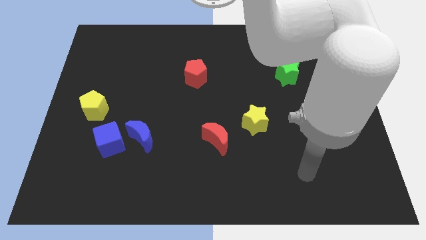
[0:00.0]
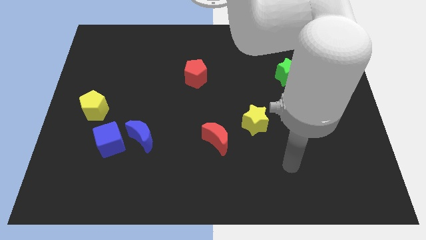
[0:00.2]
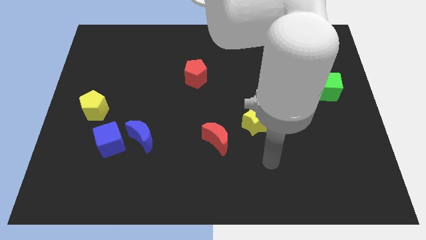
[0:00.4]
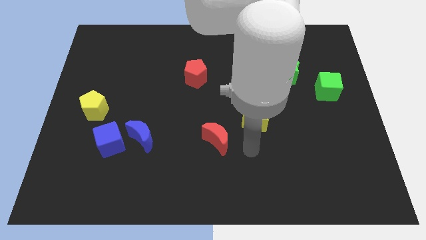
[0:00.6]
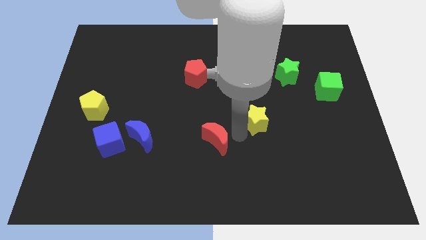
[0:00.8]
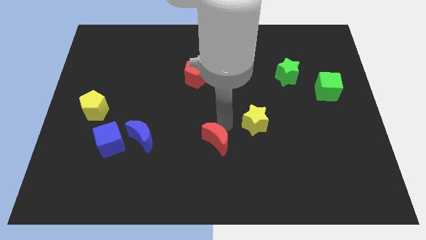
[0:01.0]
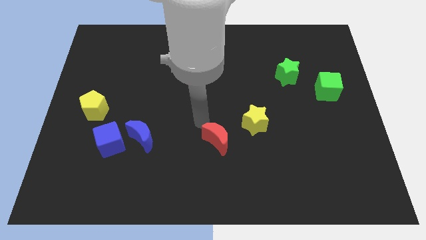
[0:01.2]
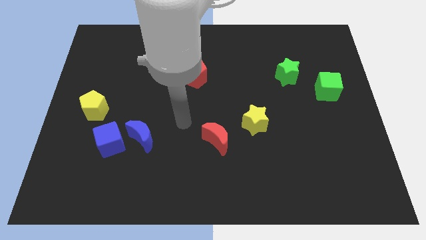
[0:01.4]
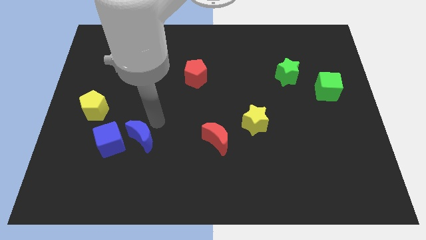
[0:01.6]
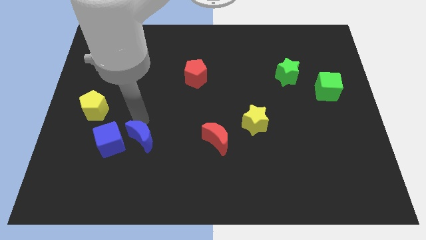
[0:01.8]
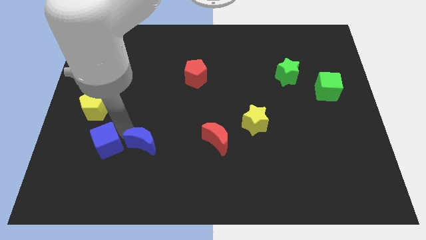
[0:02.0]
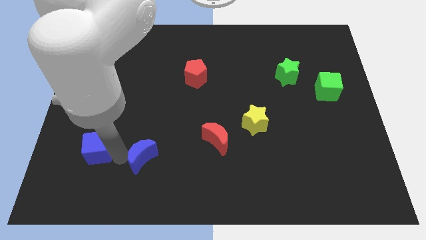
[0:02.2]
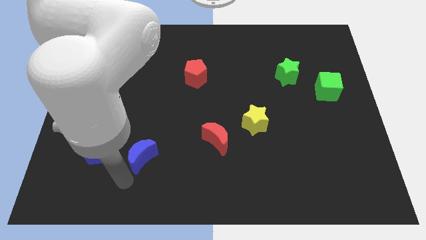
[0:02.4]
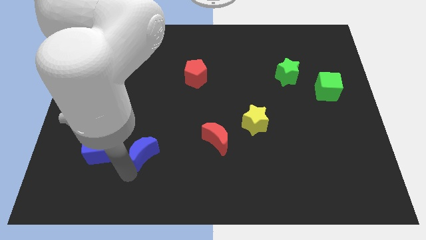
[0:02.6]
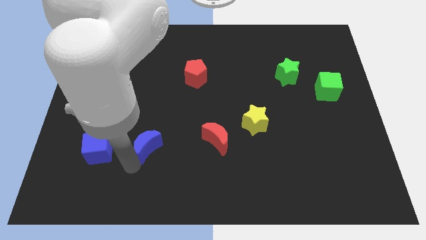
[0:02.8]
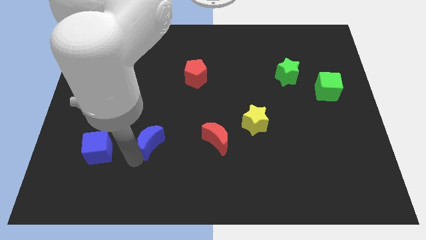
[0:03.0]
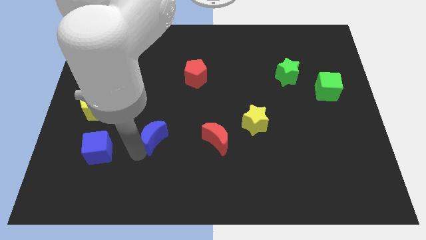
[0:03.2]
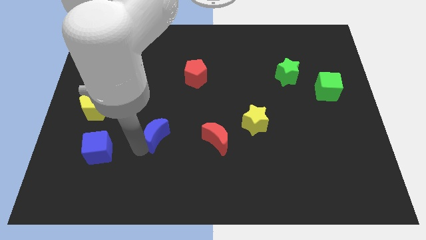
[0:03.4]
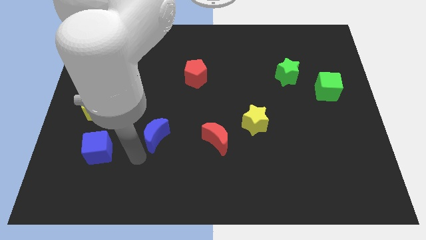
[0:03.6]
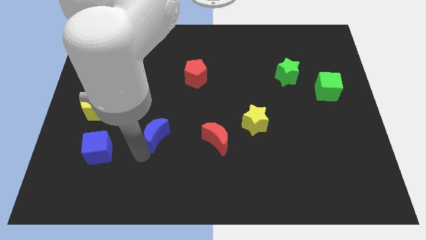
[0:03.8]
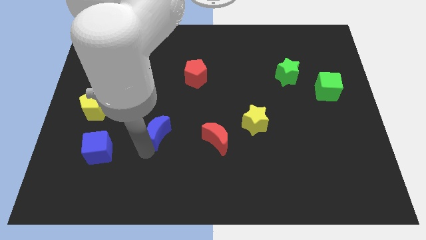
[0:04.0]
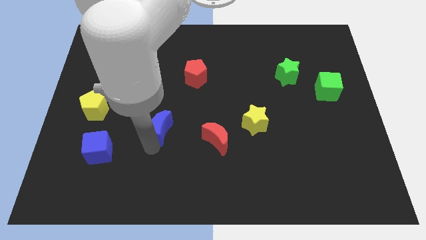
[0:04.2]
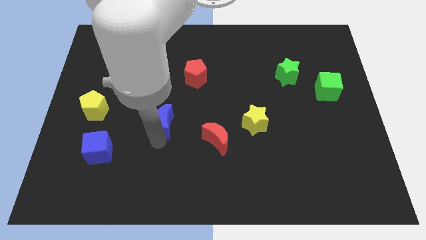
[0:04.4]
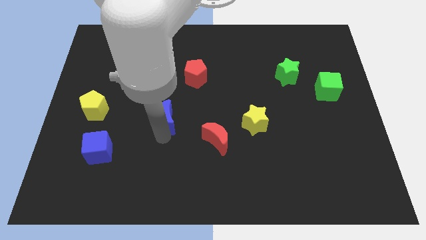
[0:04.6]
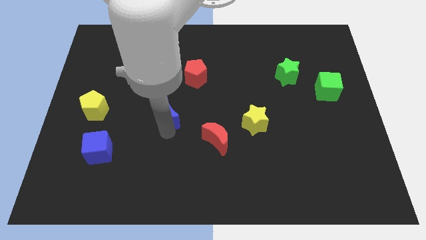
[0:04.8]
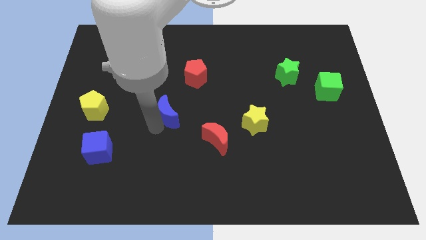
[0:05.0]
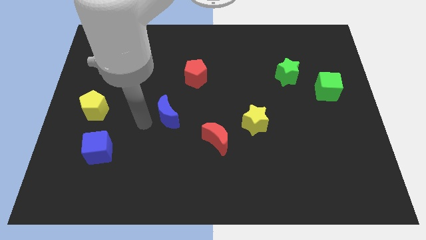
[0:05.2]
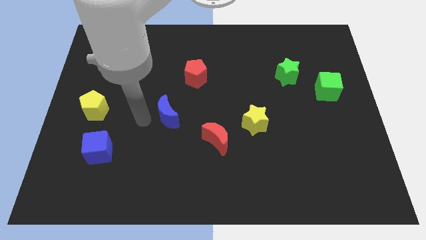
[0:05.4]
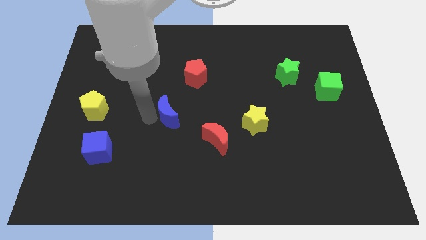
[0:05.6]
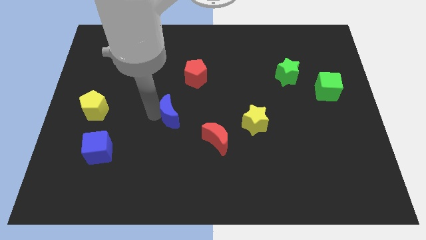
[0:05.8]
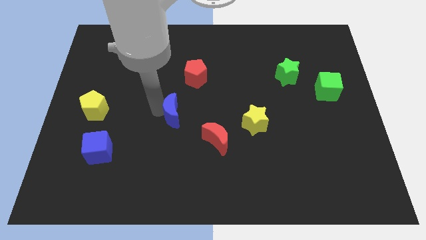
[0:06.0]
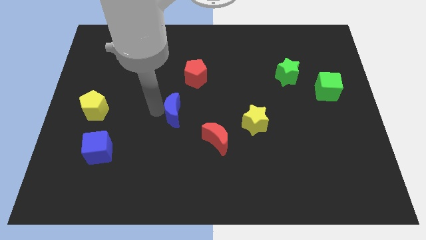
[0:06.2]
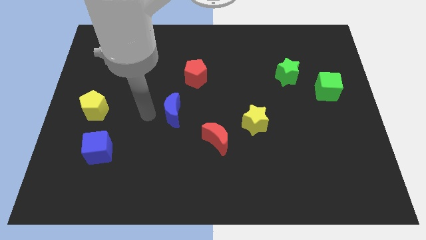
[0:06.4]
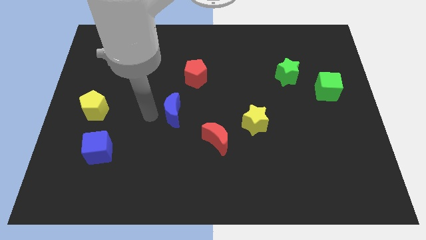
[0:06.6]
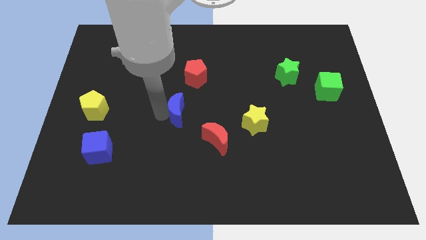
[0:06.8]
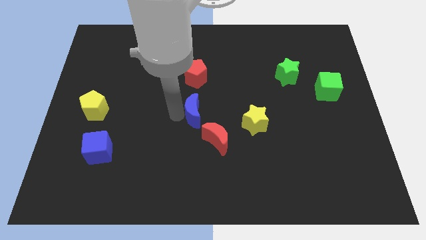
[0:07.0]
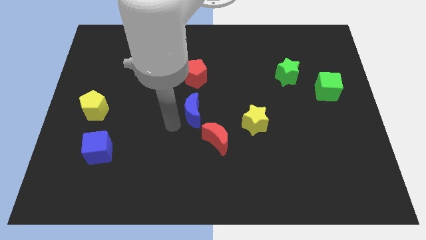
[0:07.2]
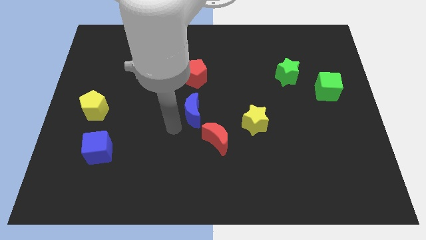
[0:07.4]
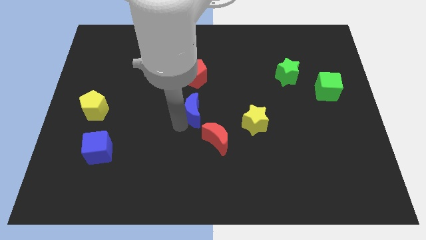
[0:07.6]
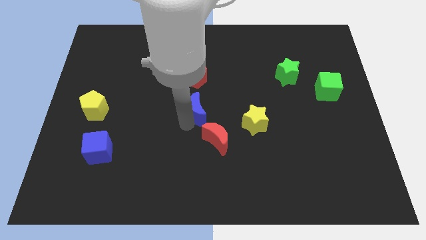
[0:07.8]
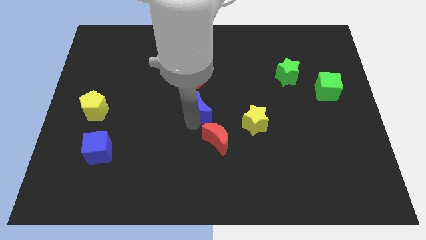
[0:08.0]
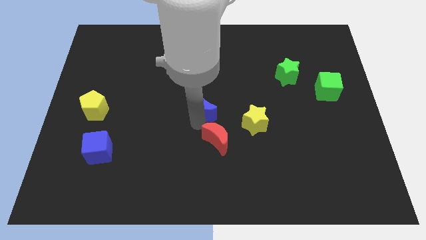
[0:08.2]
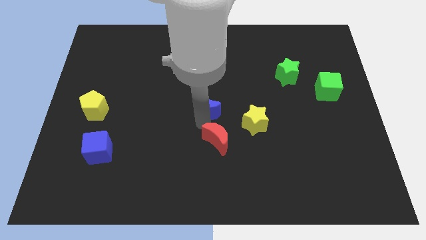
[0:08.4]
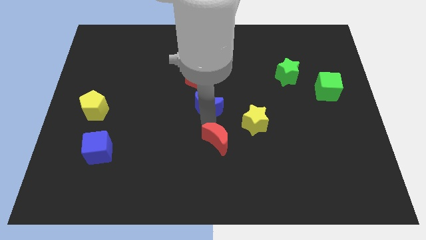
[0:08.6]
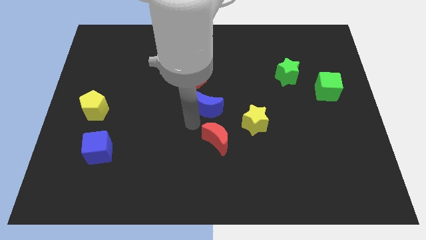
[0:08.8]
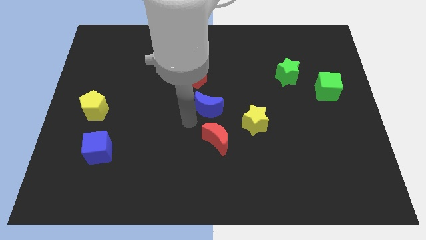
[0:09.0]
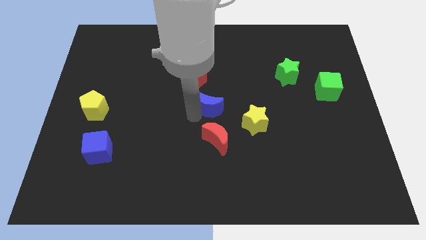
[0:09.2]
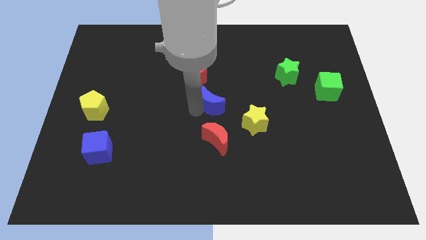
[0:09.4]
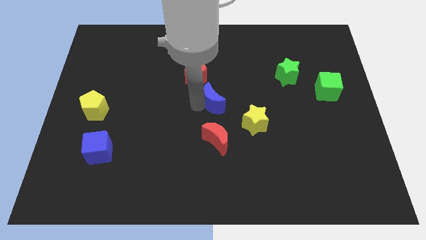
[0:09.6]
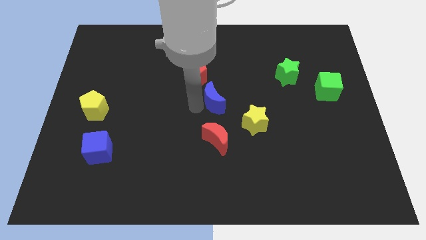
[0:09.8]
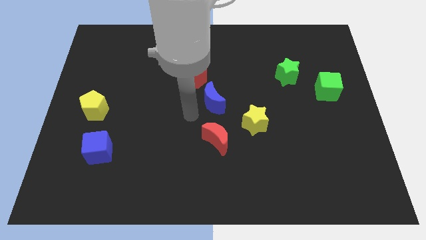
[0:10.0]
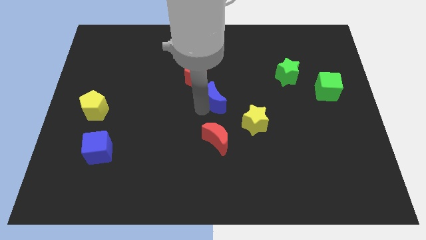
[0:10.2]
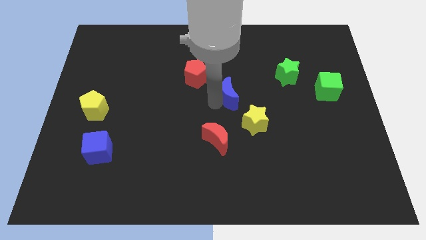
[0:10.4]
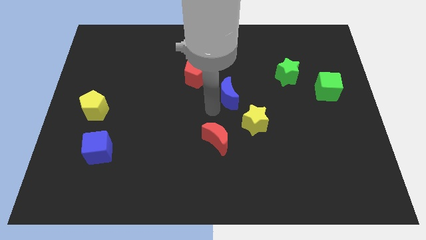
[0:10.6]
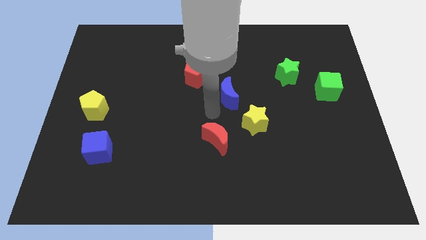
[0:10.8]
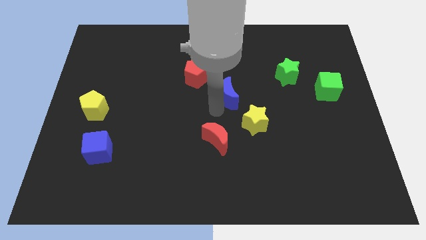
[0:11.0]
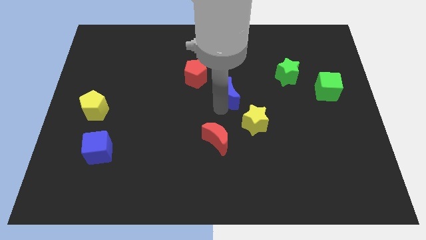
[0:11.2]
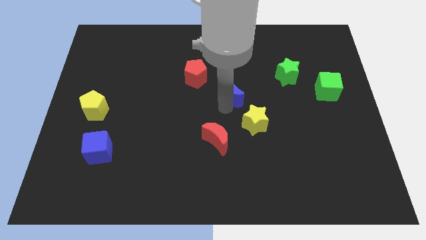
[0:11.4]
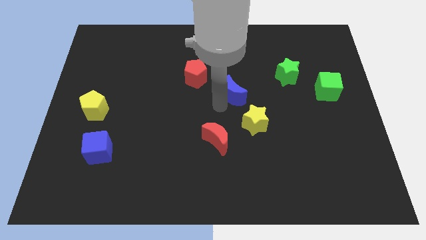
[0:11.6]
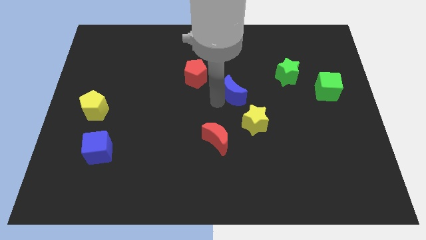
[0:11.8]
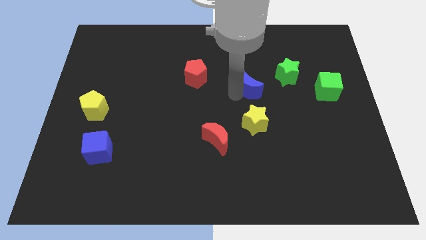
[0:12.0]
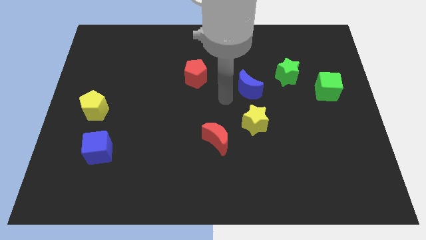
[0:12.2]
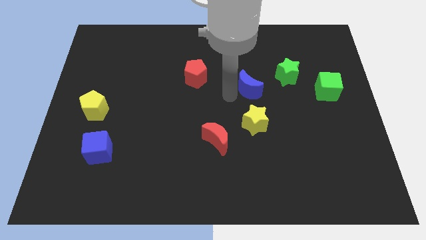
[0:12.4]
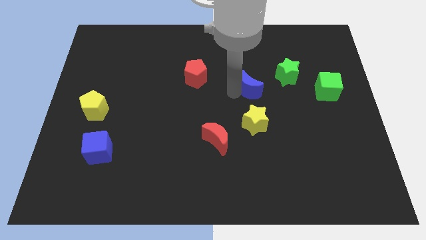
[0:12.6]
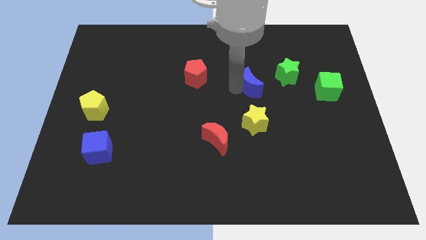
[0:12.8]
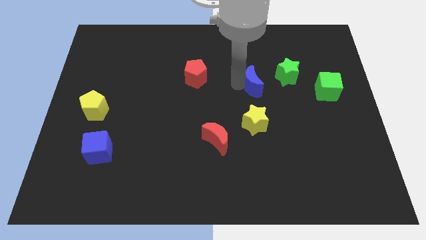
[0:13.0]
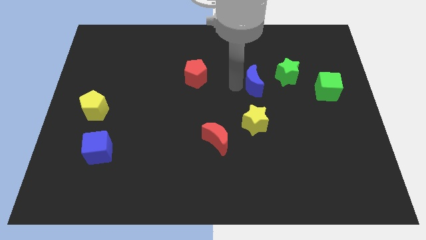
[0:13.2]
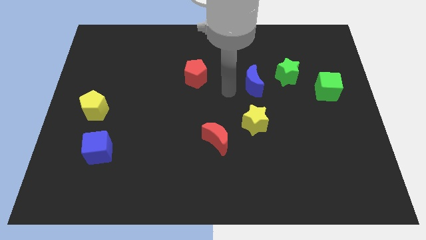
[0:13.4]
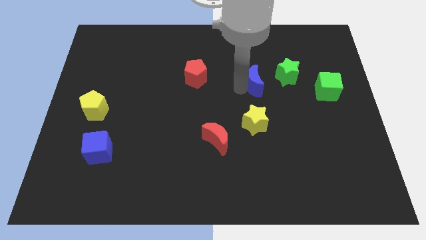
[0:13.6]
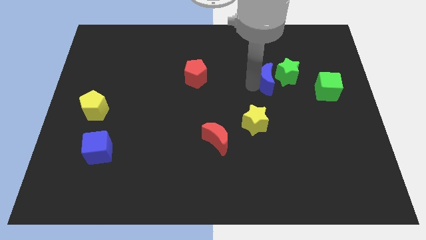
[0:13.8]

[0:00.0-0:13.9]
put the blue moon next to the green star

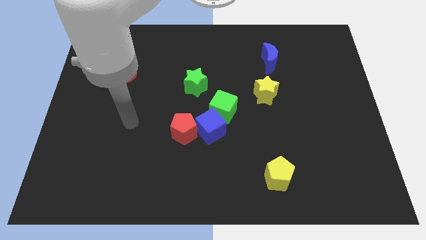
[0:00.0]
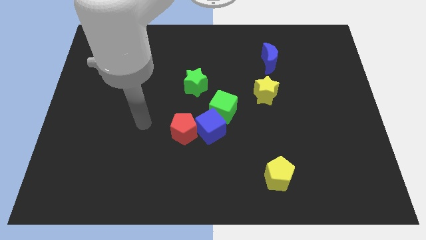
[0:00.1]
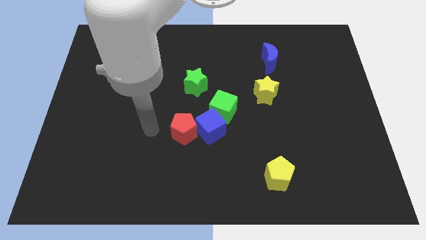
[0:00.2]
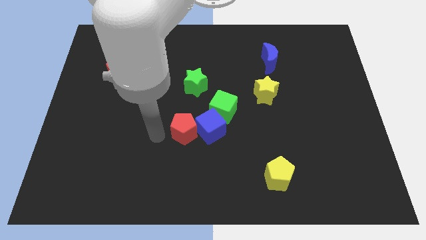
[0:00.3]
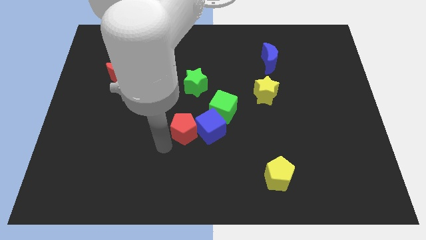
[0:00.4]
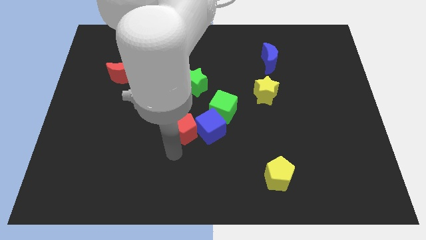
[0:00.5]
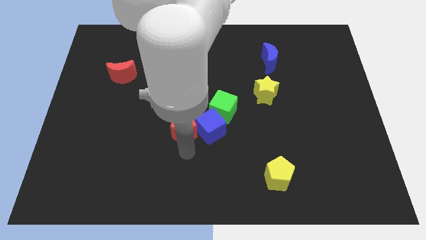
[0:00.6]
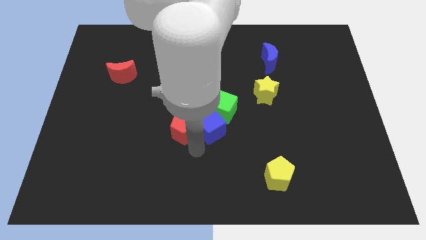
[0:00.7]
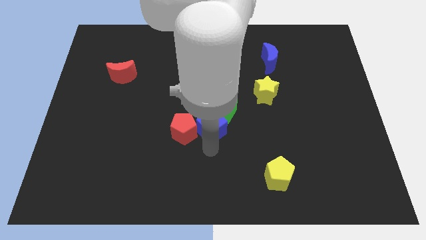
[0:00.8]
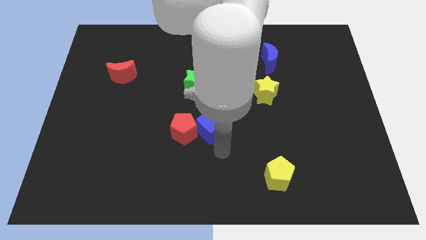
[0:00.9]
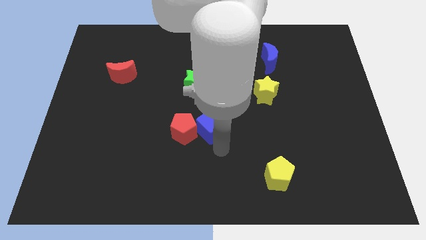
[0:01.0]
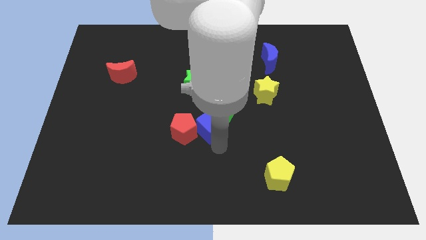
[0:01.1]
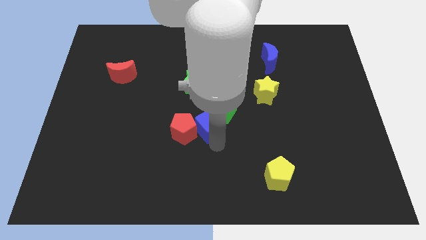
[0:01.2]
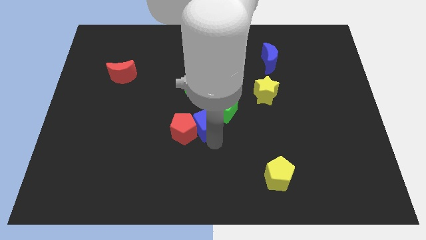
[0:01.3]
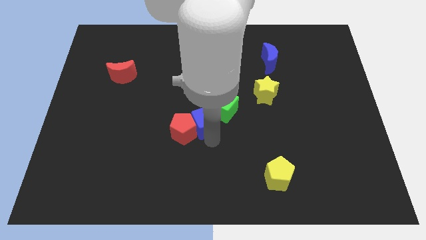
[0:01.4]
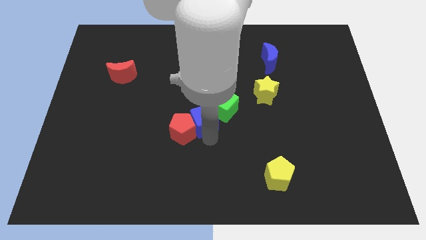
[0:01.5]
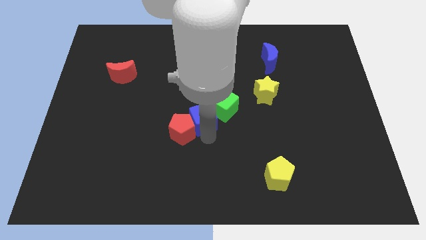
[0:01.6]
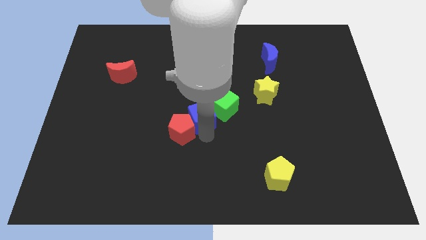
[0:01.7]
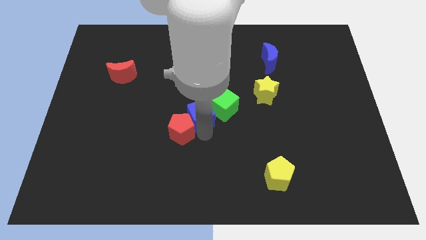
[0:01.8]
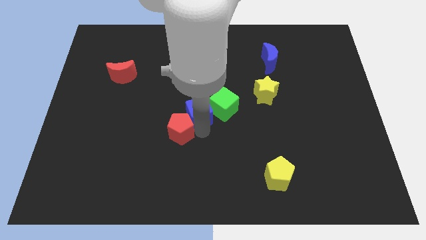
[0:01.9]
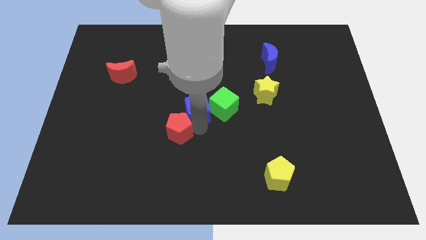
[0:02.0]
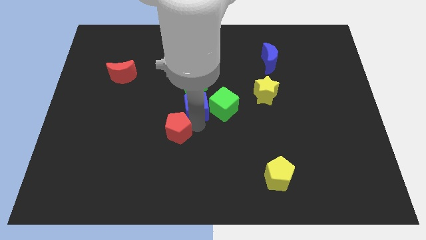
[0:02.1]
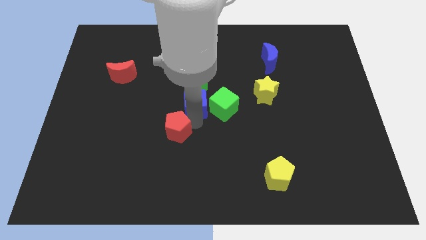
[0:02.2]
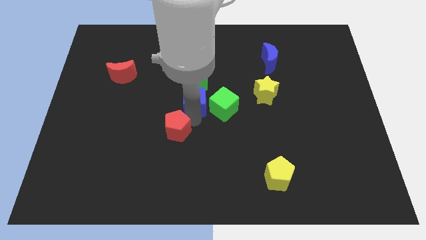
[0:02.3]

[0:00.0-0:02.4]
slide the blue cube to the green star
